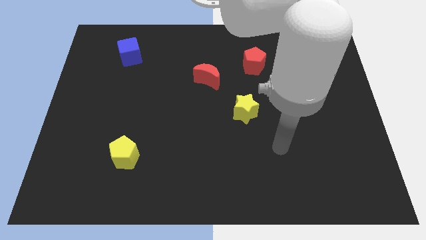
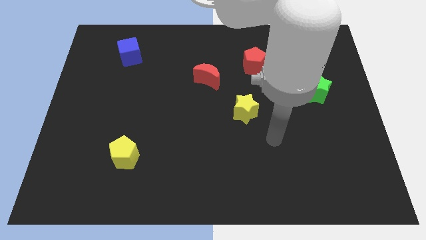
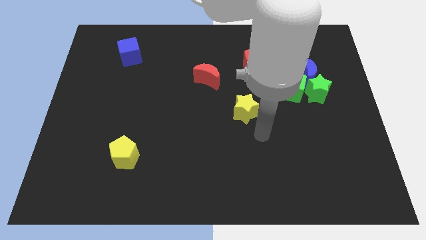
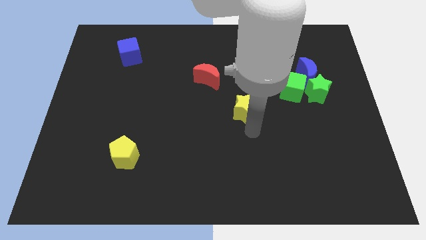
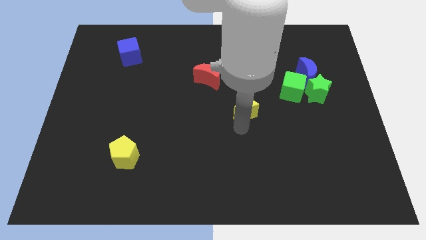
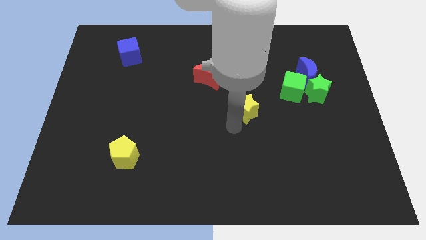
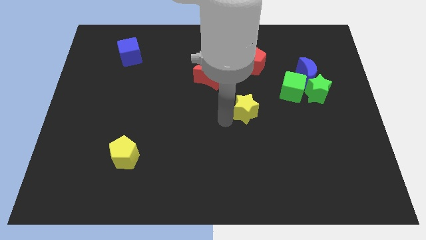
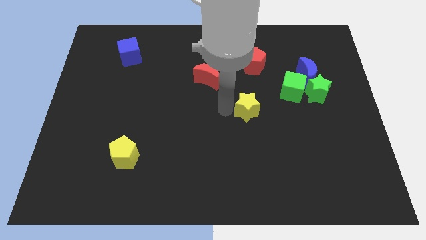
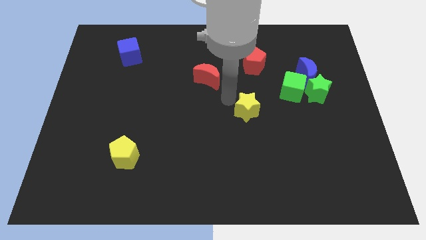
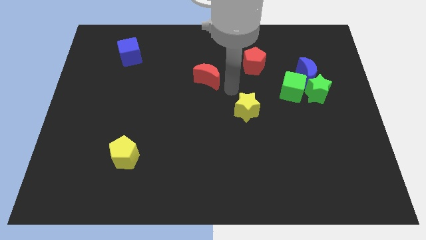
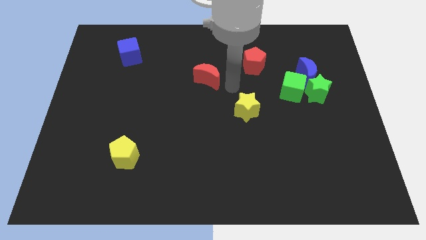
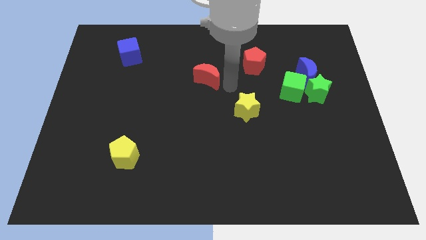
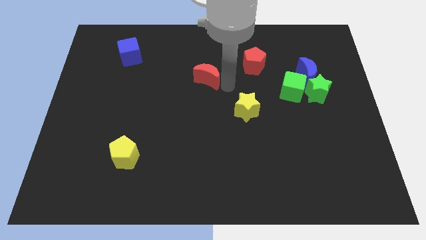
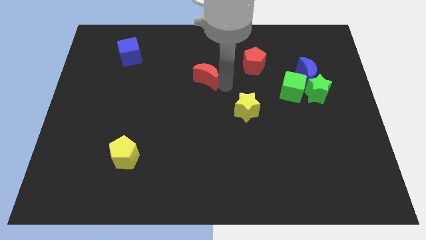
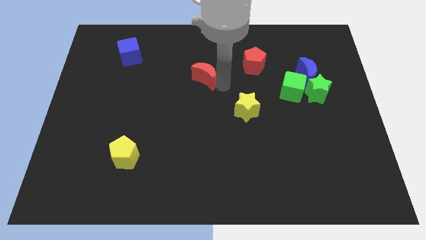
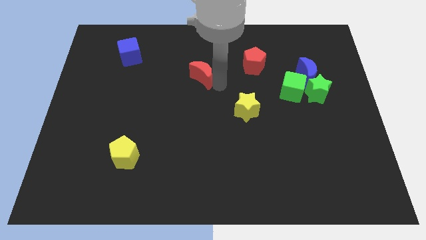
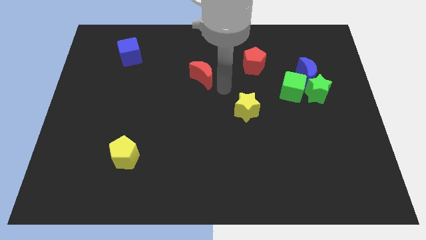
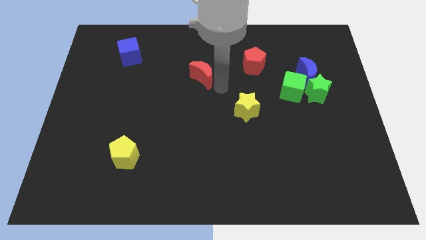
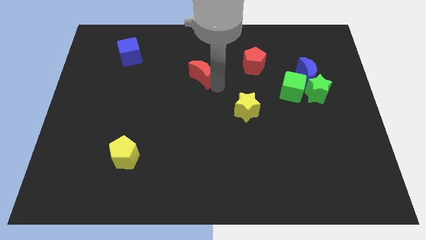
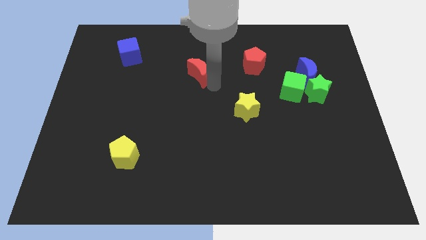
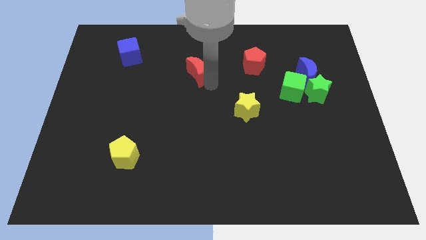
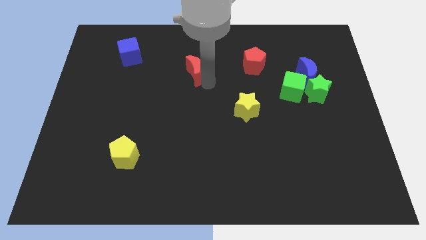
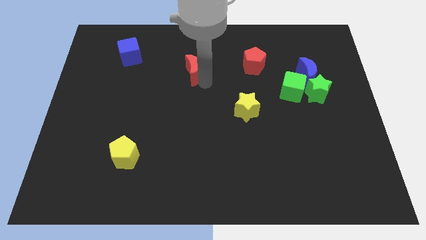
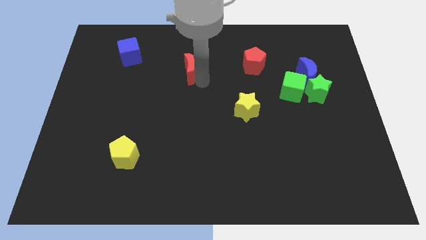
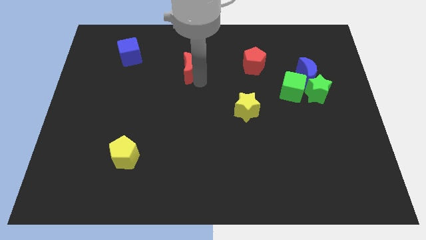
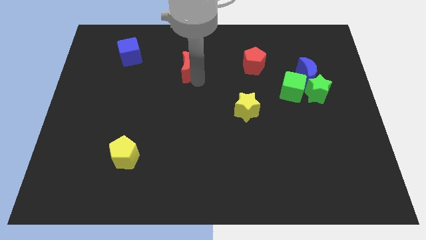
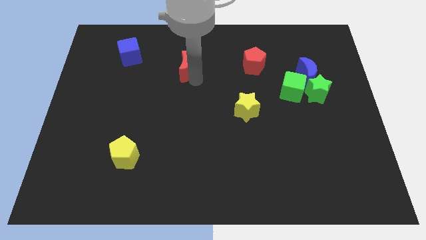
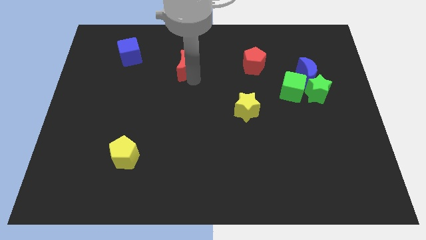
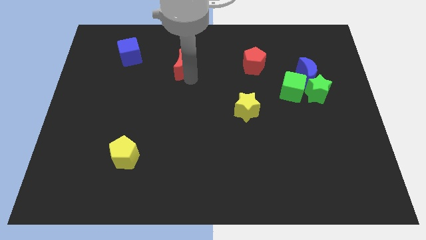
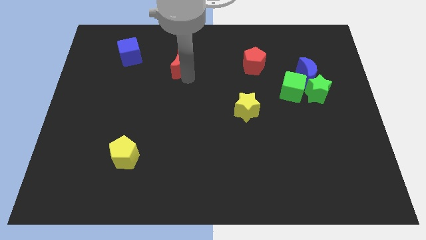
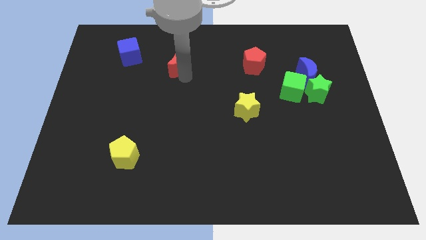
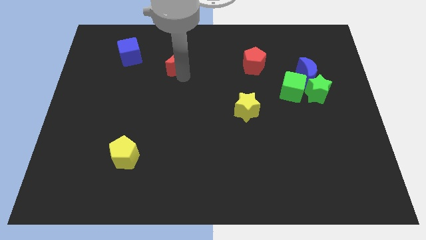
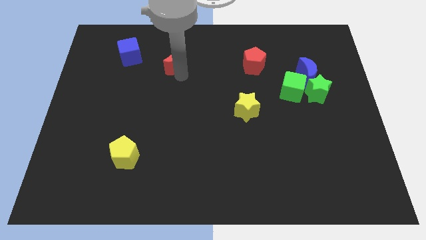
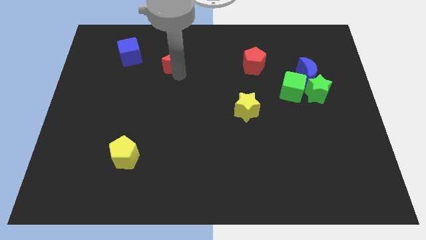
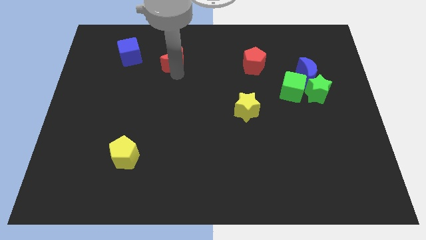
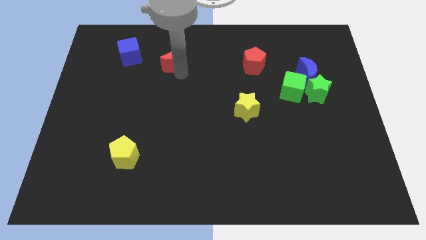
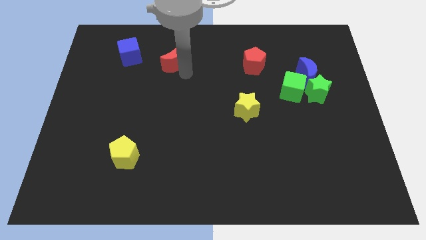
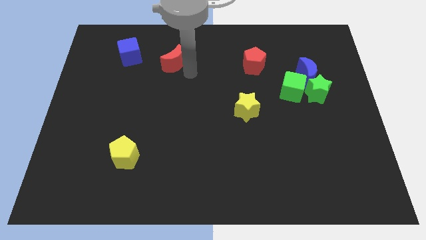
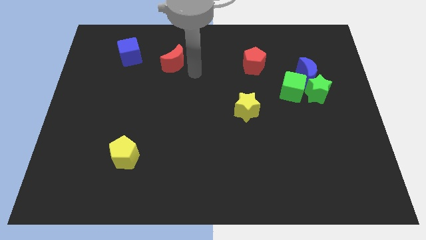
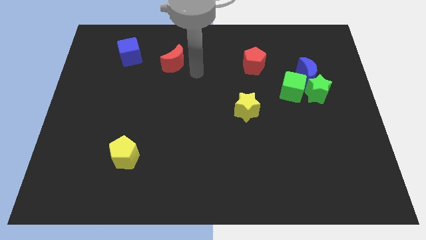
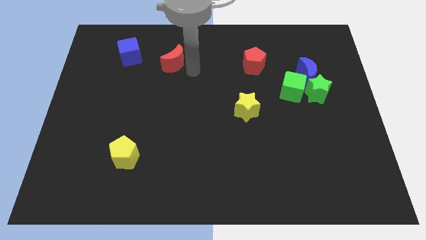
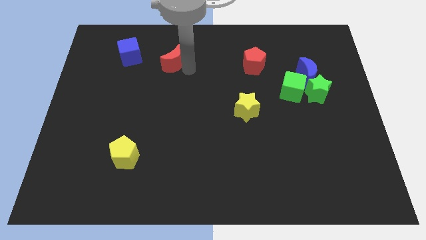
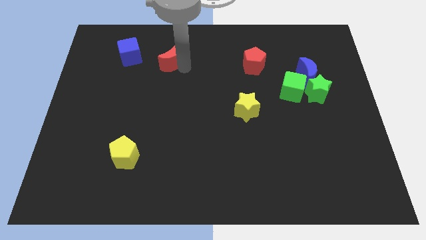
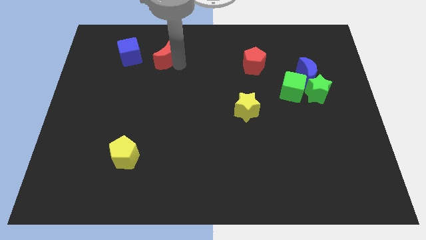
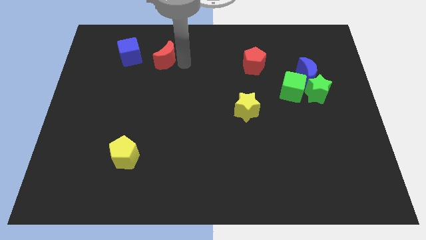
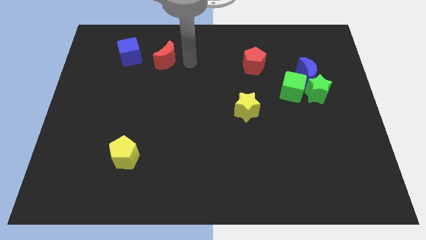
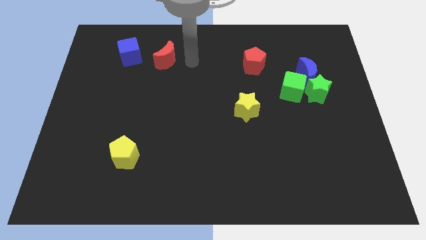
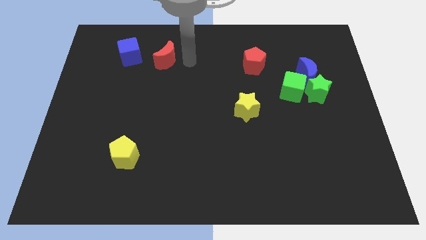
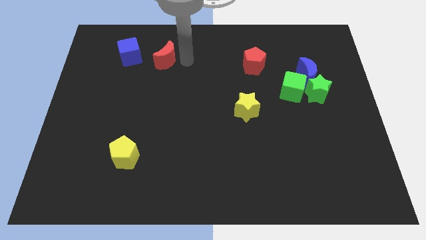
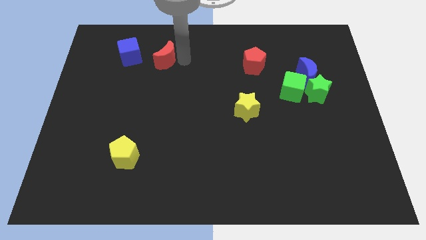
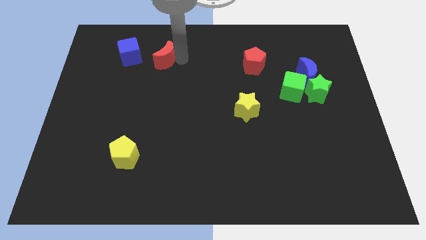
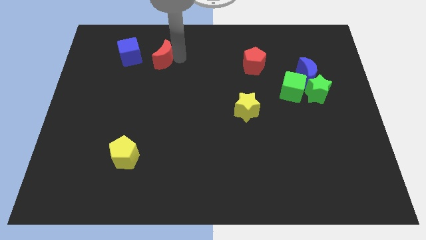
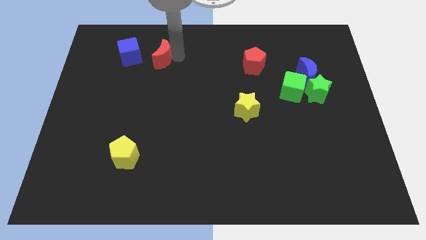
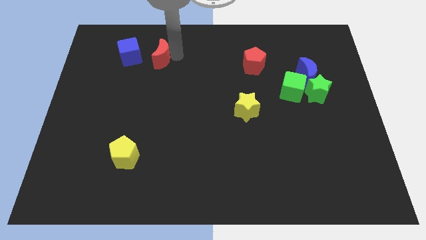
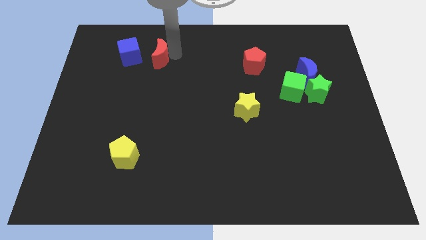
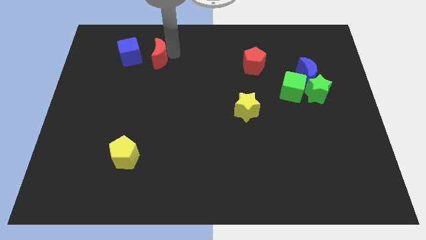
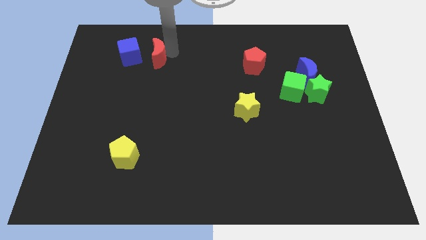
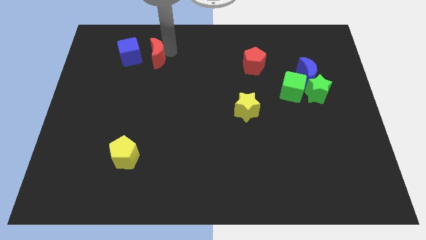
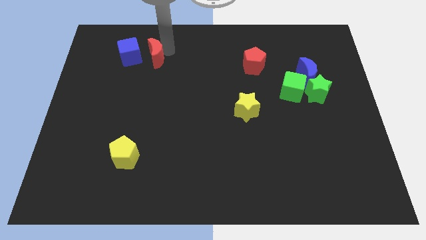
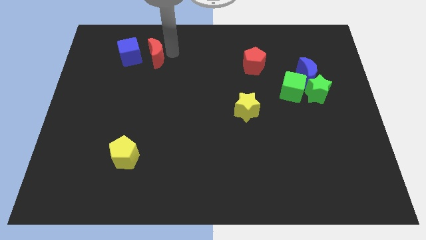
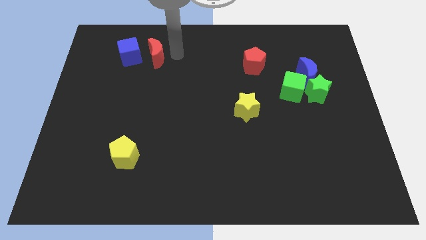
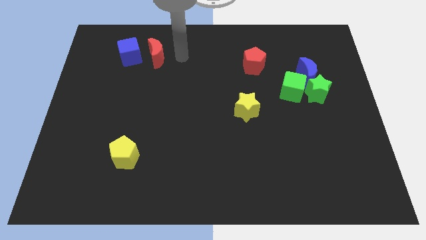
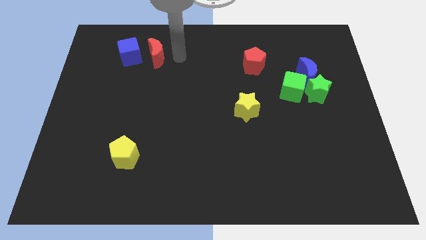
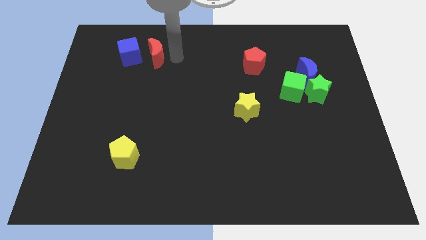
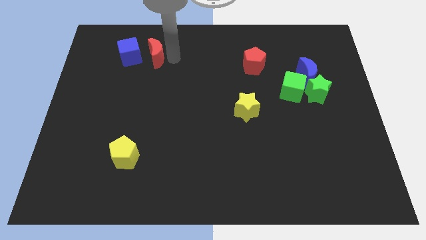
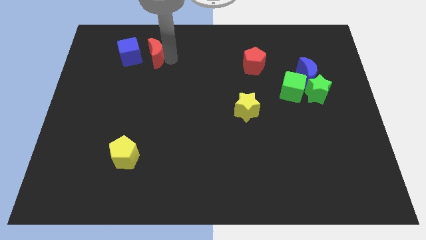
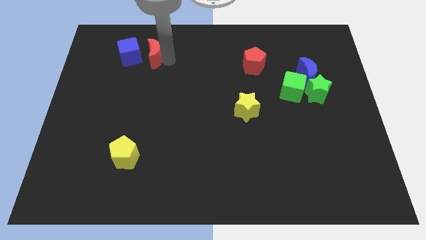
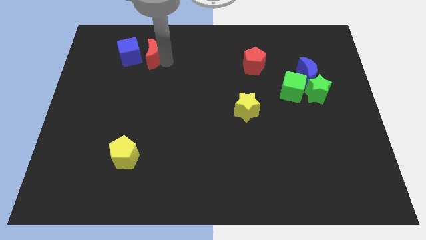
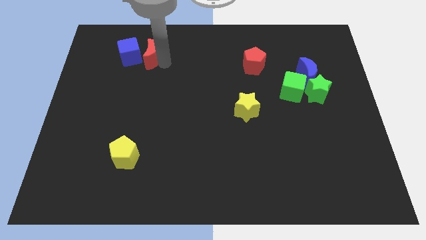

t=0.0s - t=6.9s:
move the red moon towards the blue cube

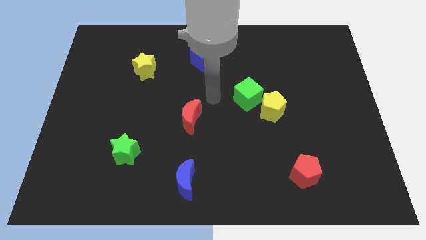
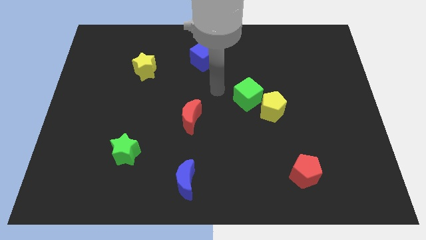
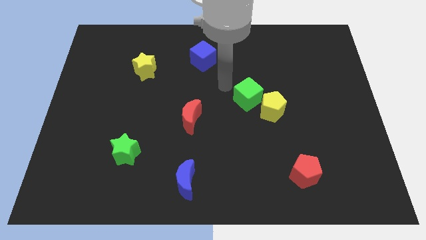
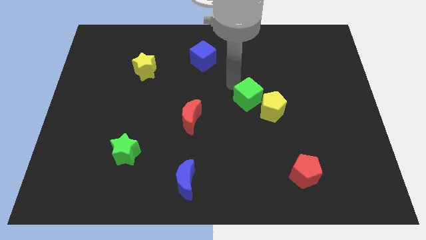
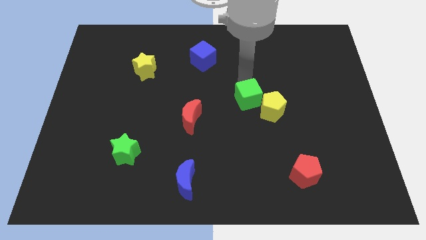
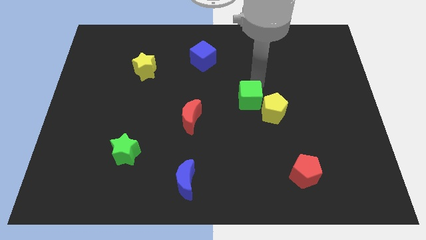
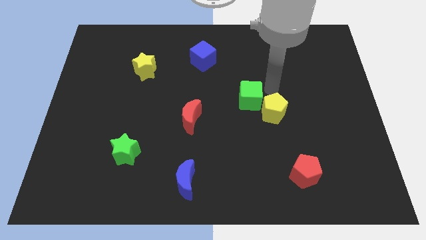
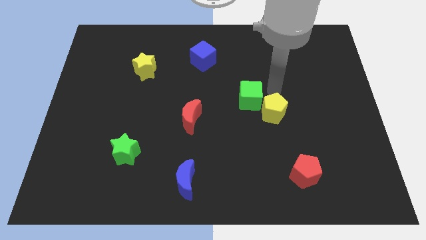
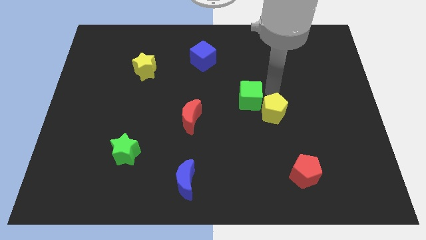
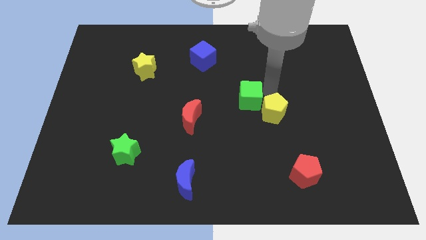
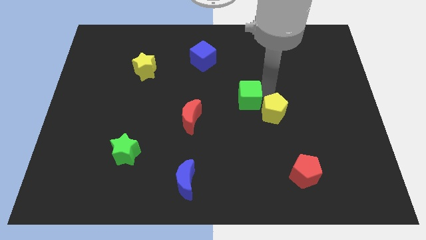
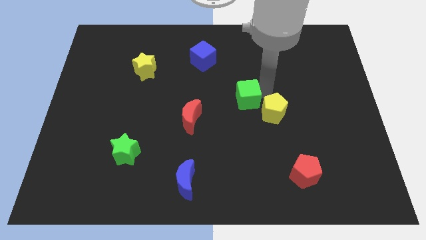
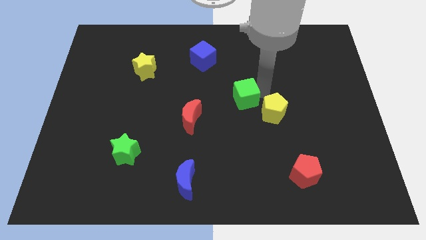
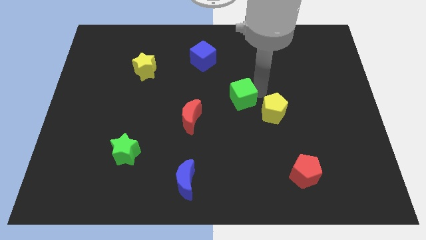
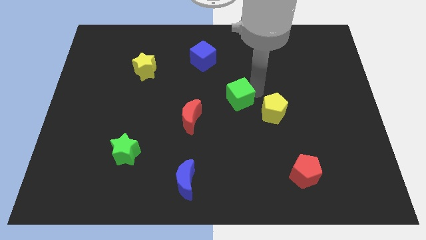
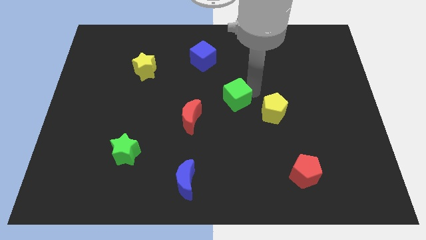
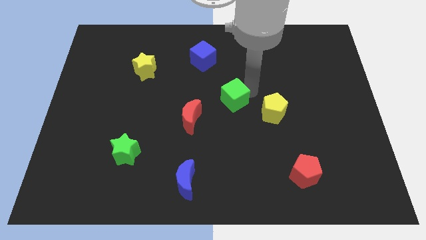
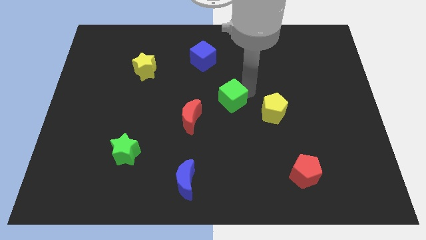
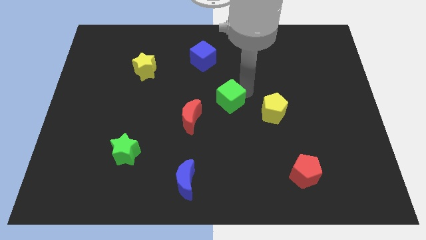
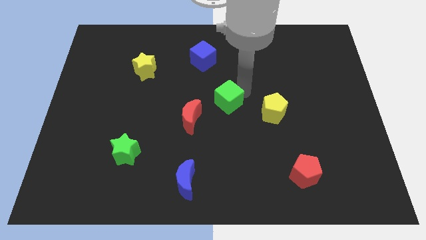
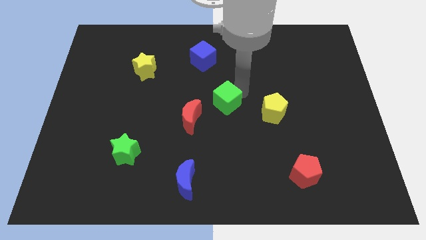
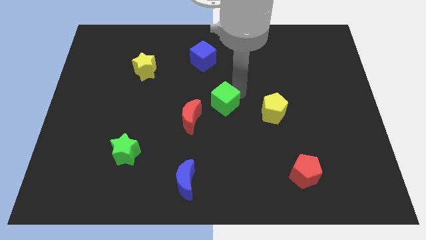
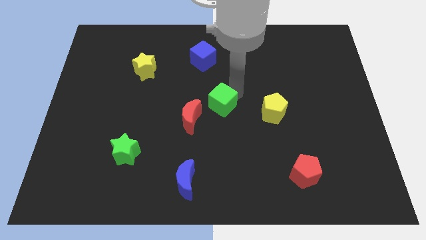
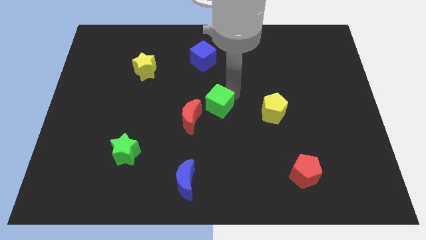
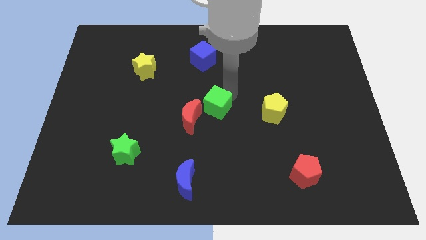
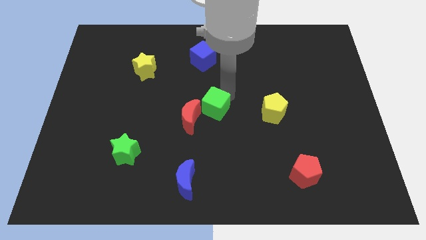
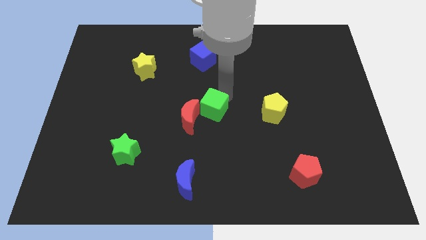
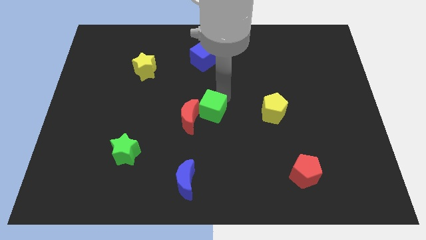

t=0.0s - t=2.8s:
move the green cube to the red moon
